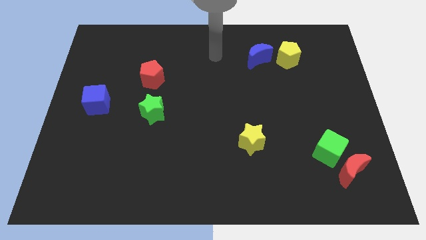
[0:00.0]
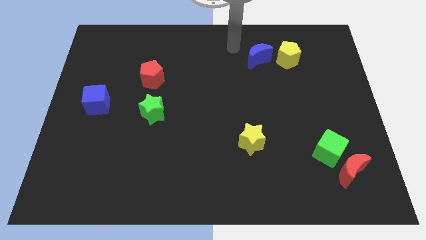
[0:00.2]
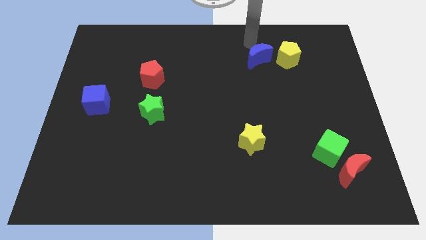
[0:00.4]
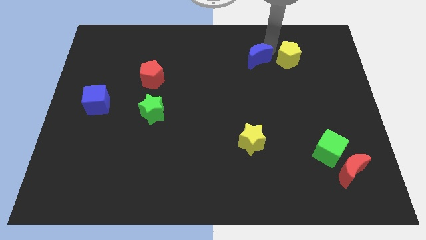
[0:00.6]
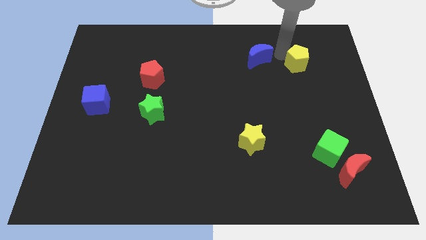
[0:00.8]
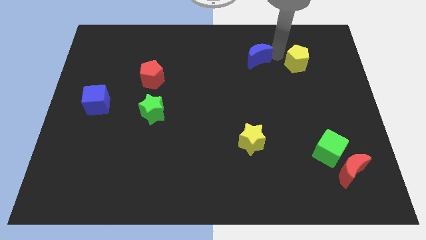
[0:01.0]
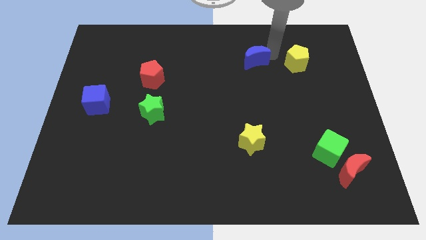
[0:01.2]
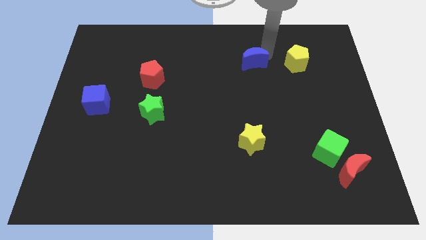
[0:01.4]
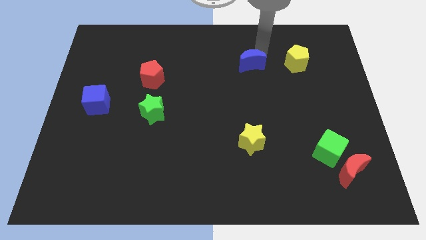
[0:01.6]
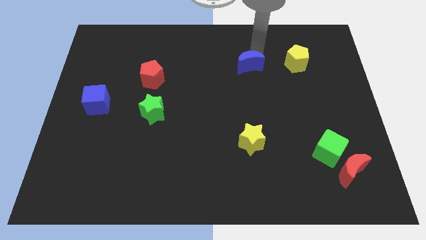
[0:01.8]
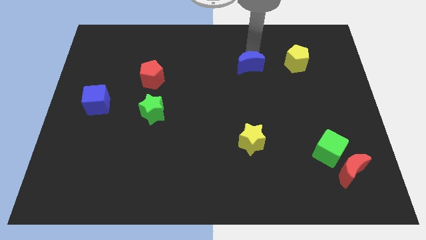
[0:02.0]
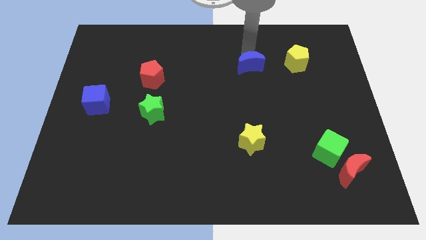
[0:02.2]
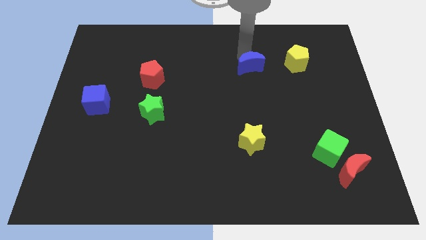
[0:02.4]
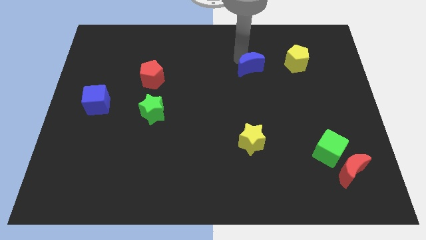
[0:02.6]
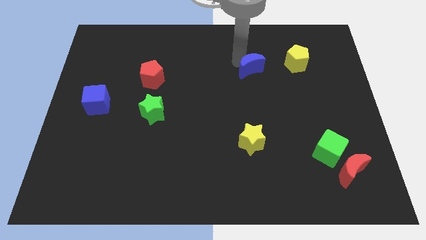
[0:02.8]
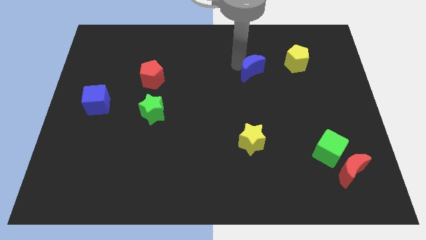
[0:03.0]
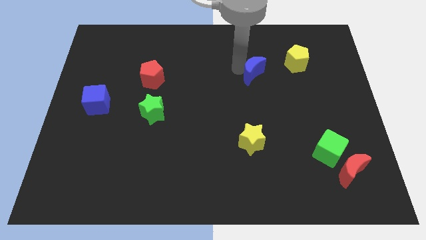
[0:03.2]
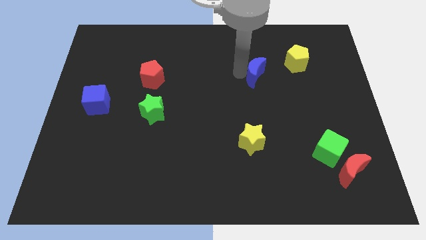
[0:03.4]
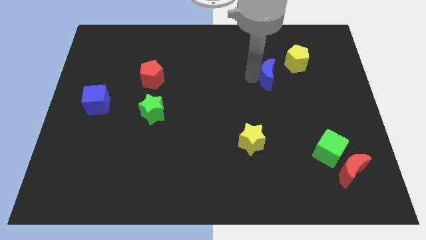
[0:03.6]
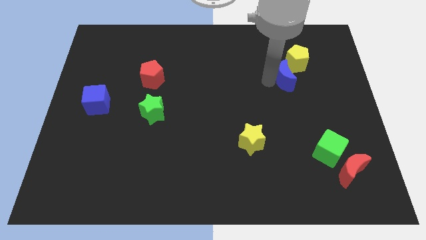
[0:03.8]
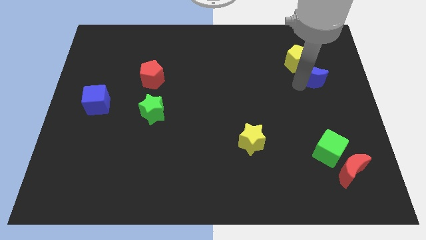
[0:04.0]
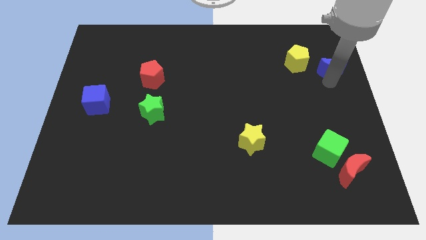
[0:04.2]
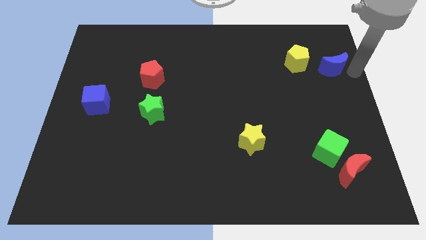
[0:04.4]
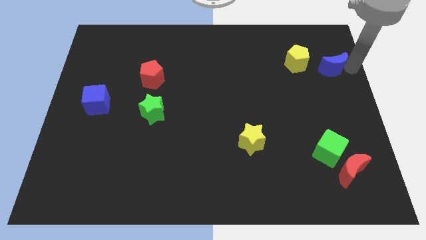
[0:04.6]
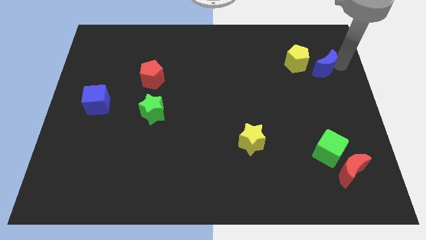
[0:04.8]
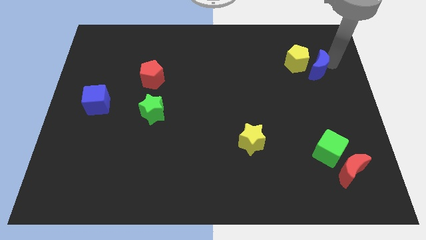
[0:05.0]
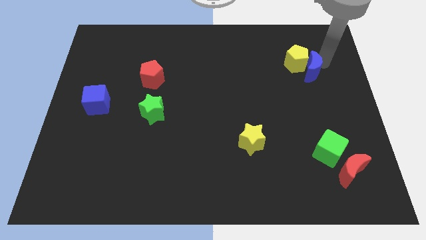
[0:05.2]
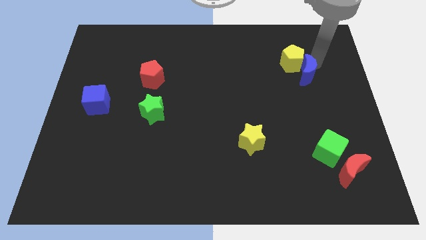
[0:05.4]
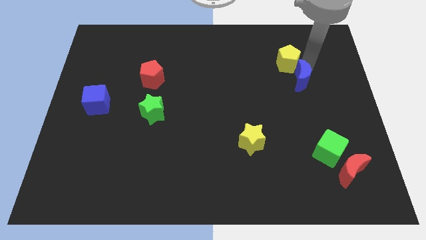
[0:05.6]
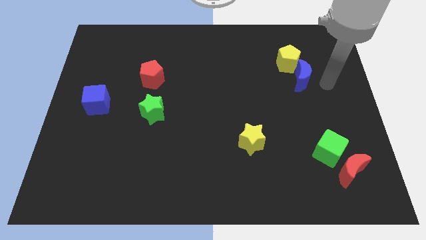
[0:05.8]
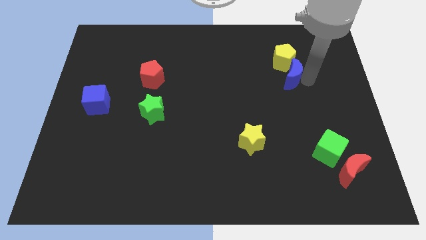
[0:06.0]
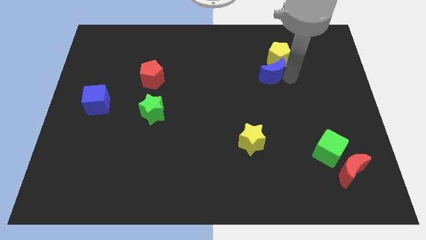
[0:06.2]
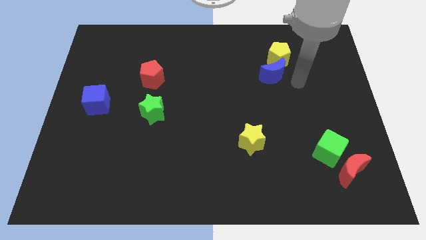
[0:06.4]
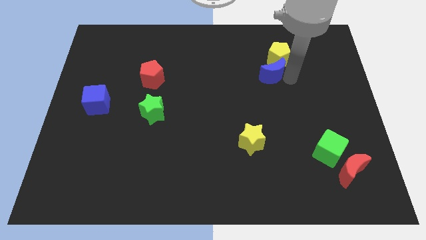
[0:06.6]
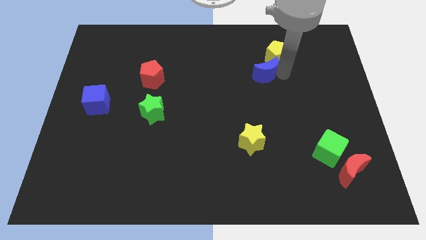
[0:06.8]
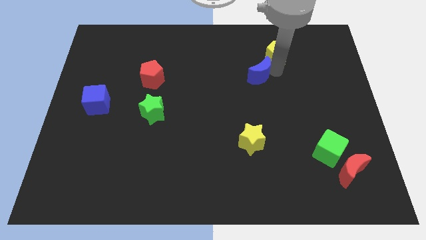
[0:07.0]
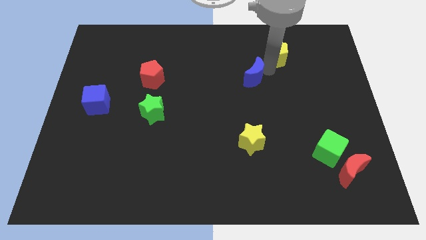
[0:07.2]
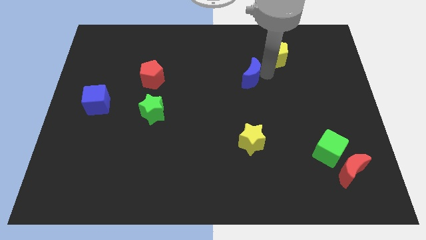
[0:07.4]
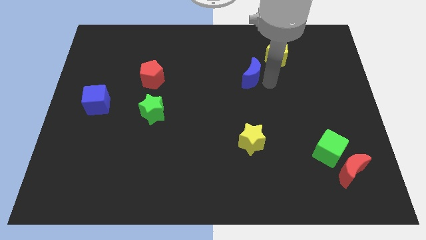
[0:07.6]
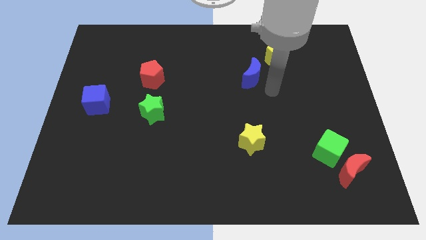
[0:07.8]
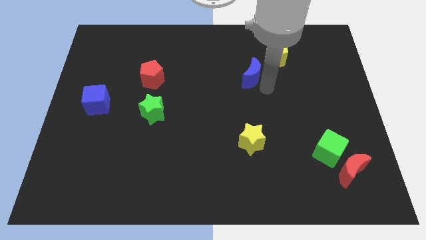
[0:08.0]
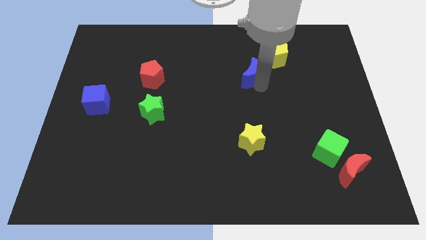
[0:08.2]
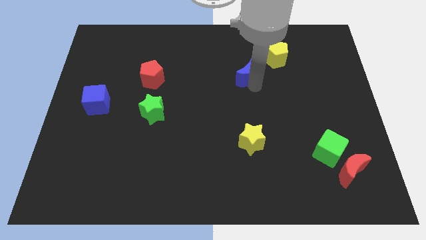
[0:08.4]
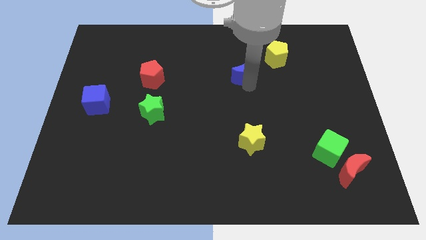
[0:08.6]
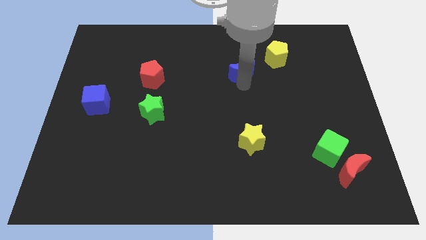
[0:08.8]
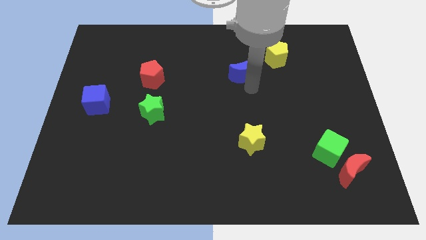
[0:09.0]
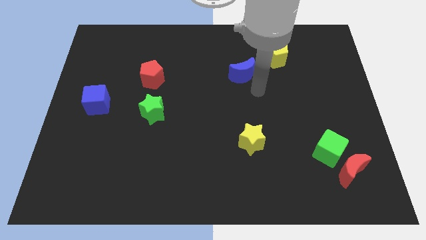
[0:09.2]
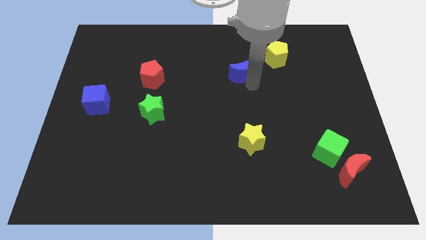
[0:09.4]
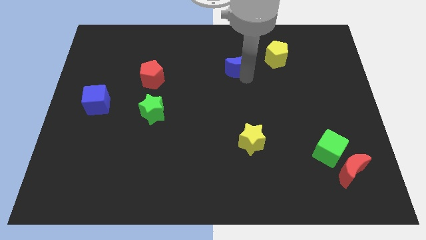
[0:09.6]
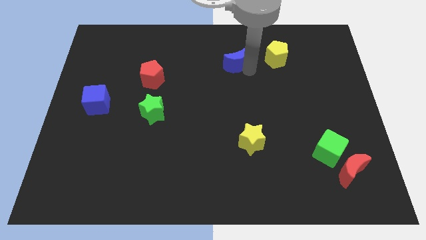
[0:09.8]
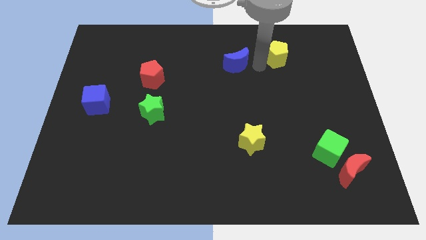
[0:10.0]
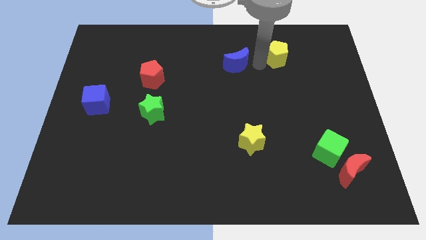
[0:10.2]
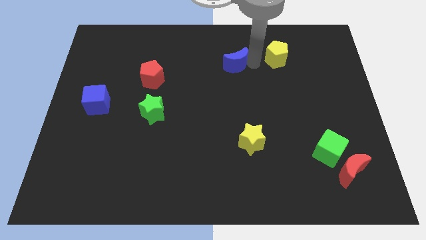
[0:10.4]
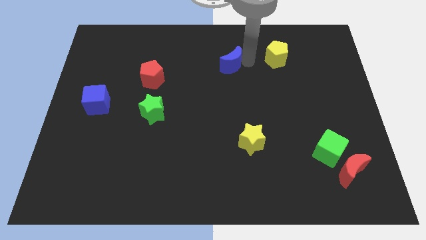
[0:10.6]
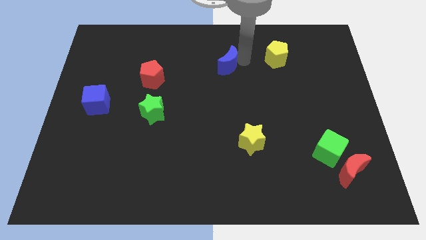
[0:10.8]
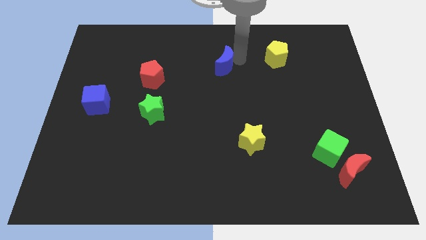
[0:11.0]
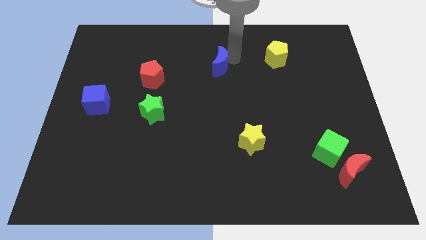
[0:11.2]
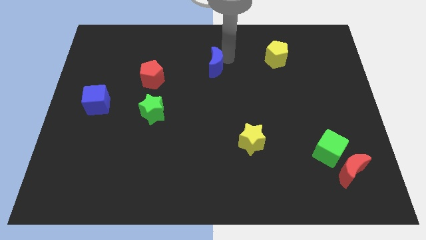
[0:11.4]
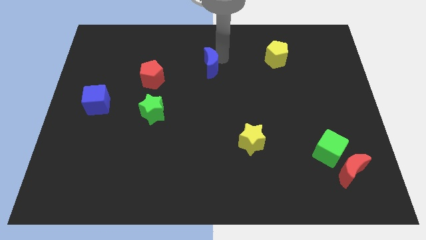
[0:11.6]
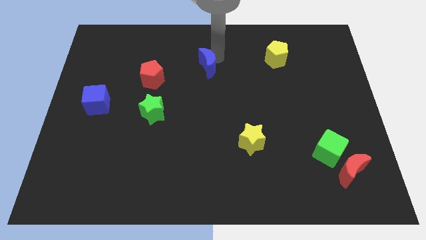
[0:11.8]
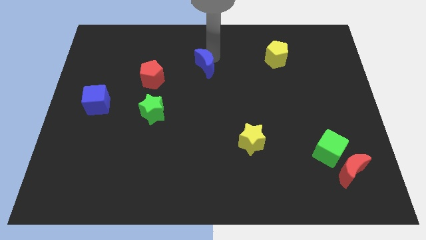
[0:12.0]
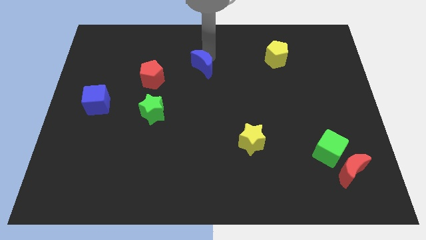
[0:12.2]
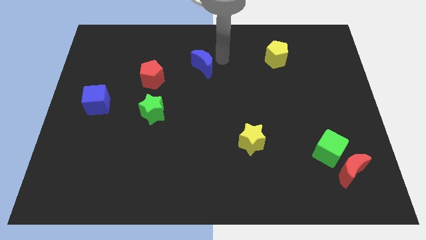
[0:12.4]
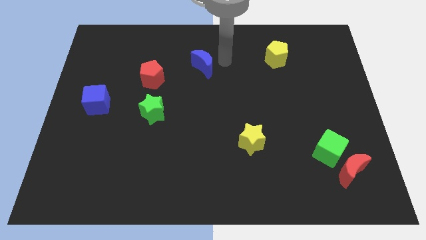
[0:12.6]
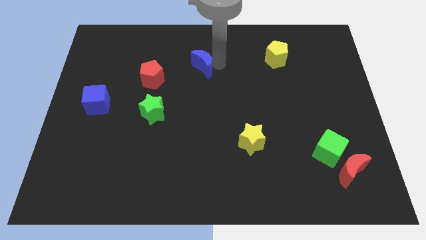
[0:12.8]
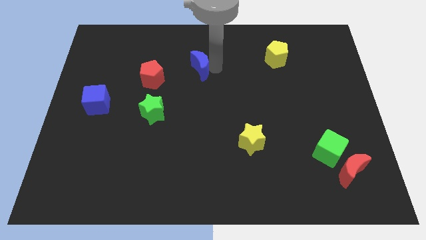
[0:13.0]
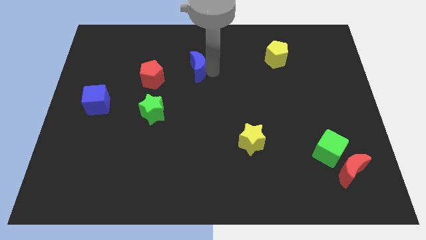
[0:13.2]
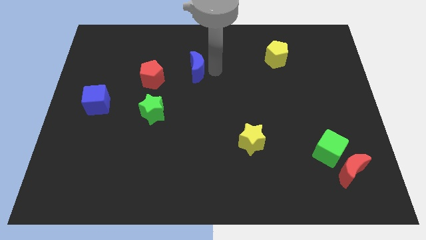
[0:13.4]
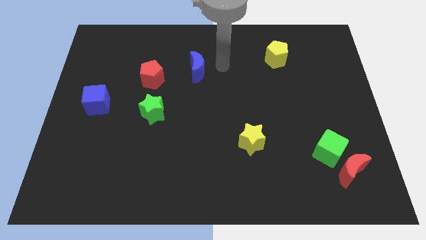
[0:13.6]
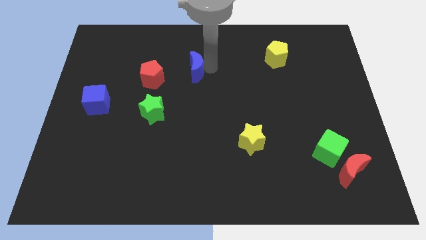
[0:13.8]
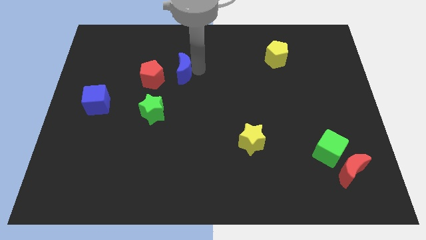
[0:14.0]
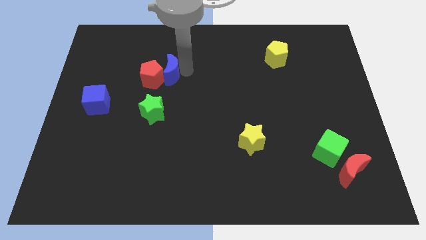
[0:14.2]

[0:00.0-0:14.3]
push the blue moon to the red pentagon

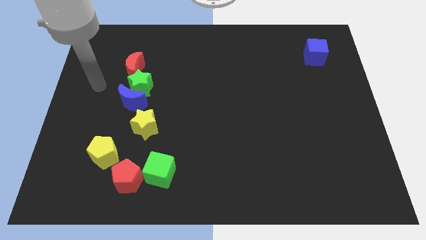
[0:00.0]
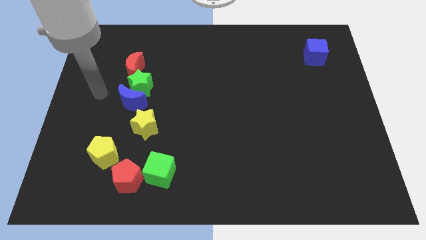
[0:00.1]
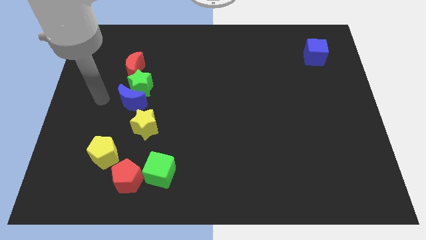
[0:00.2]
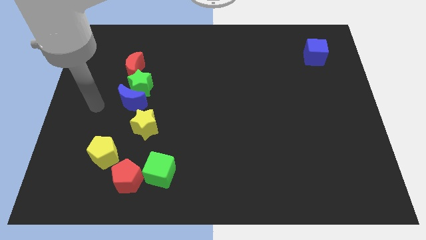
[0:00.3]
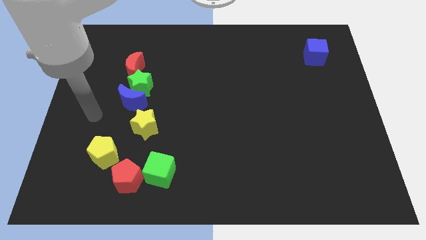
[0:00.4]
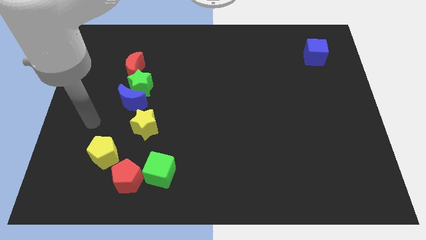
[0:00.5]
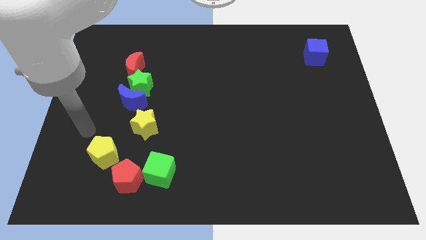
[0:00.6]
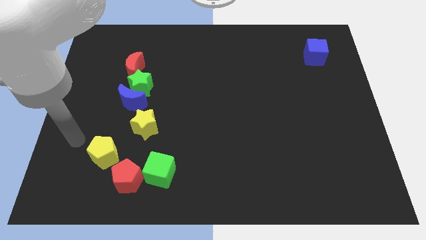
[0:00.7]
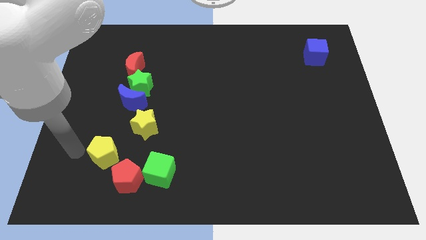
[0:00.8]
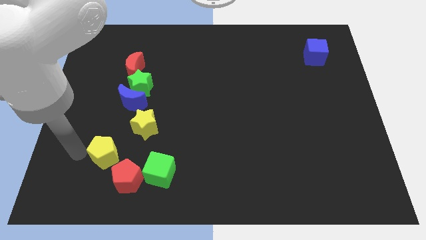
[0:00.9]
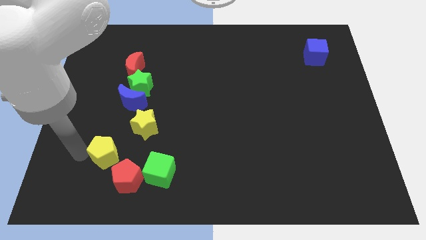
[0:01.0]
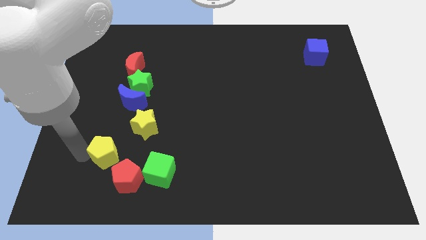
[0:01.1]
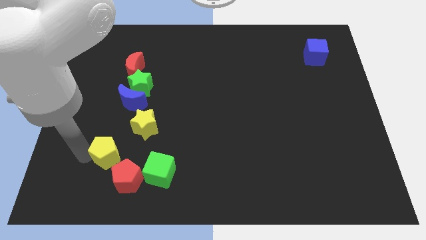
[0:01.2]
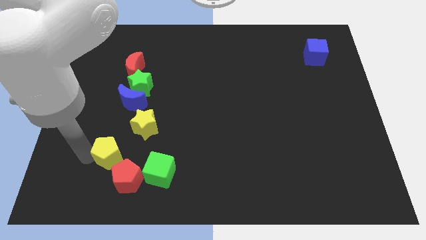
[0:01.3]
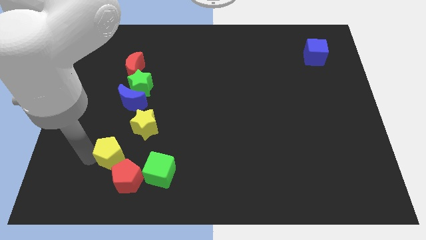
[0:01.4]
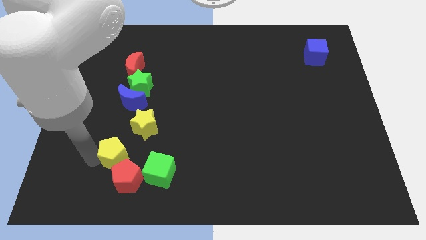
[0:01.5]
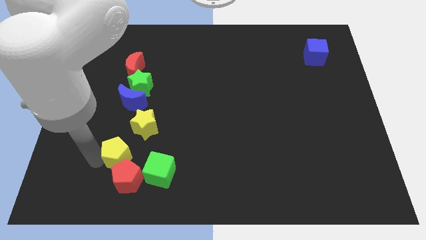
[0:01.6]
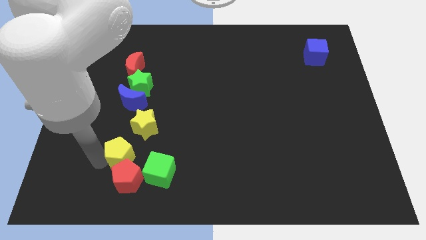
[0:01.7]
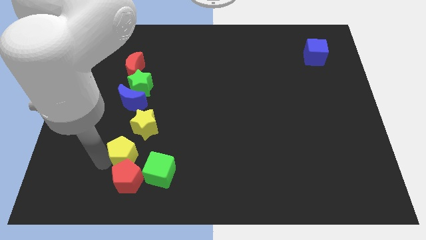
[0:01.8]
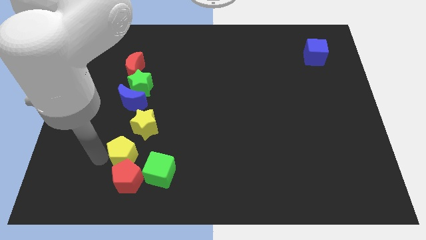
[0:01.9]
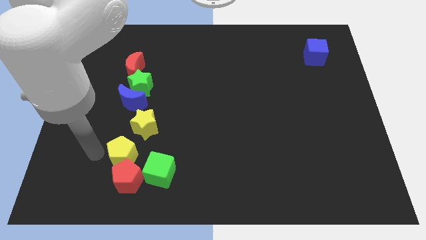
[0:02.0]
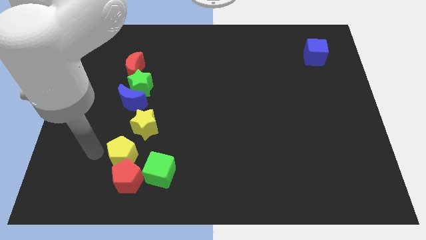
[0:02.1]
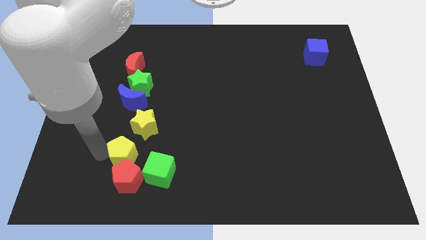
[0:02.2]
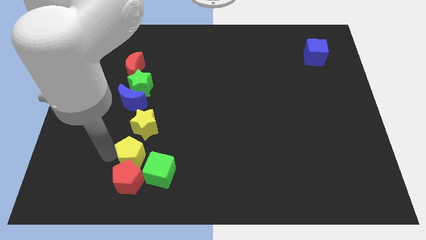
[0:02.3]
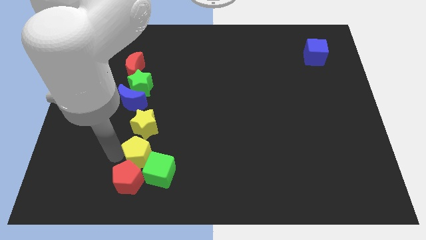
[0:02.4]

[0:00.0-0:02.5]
slide the yellow pentagon next to the green cube
